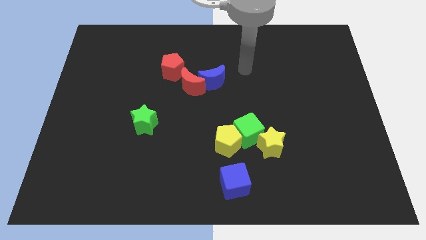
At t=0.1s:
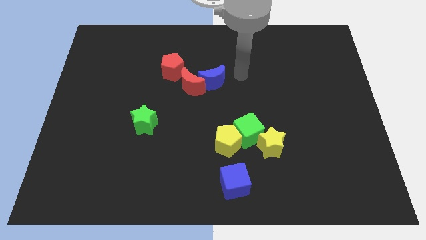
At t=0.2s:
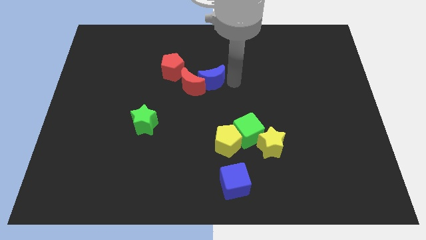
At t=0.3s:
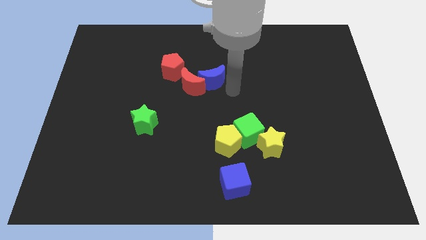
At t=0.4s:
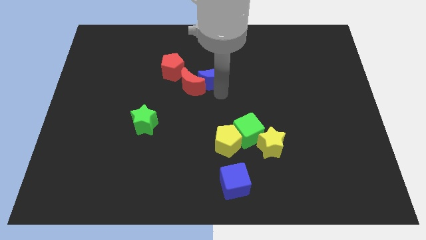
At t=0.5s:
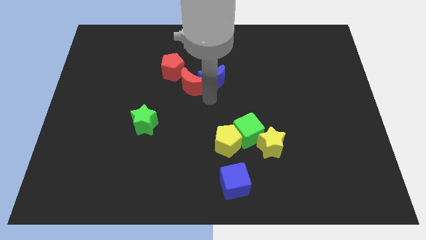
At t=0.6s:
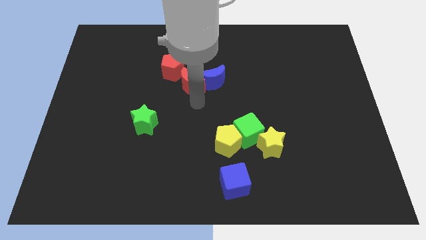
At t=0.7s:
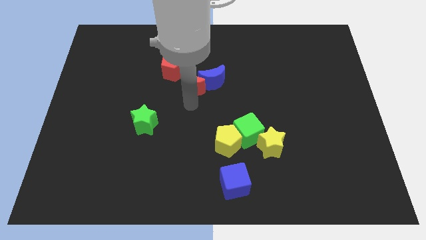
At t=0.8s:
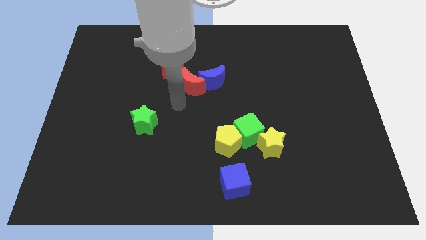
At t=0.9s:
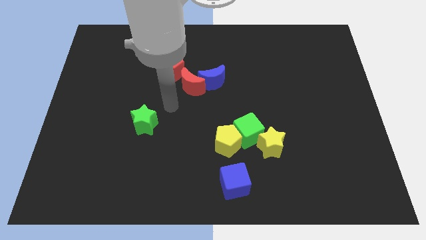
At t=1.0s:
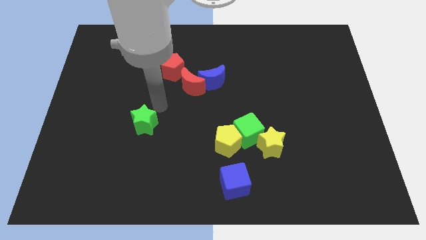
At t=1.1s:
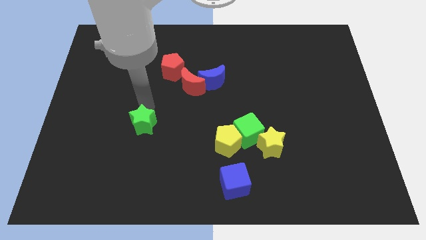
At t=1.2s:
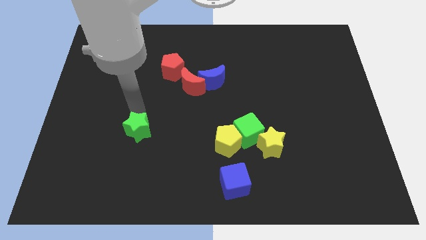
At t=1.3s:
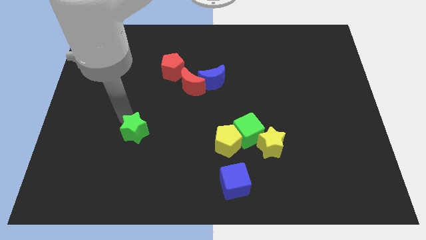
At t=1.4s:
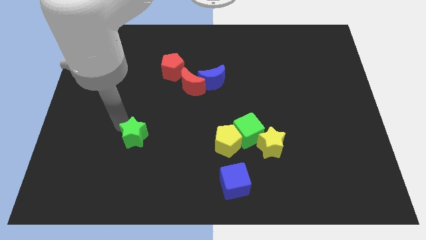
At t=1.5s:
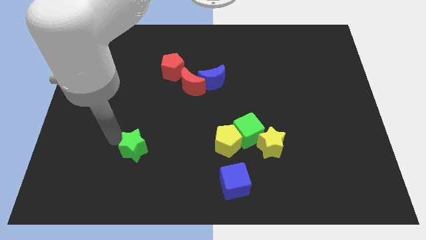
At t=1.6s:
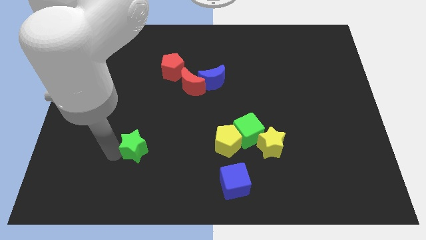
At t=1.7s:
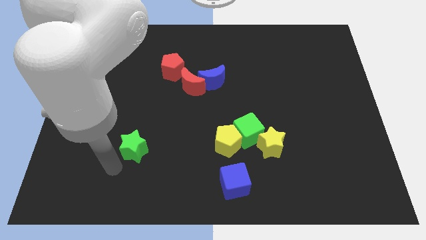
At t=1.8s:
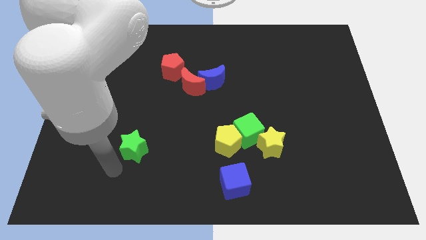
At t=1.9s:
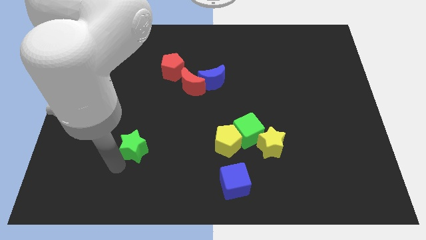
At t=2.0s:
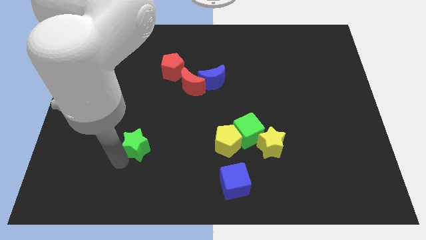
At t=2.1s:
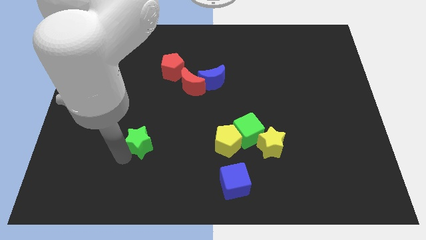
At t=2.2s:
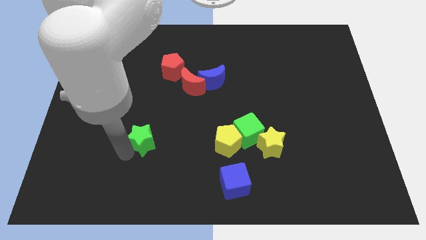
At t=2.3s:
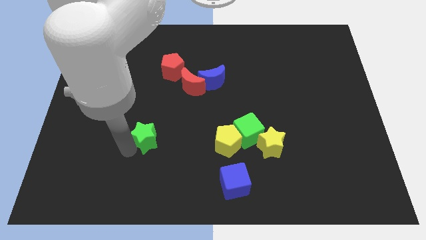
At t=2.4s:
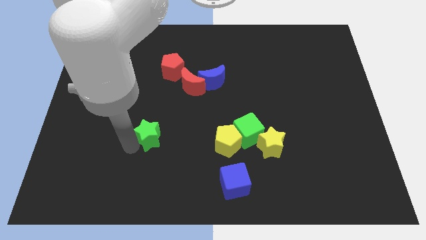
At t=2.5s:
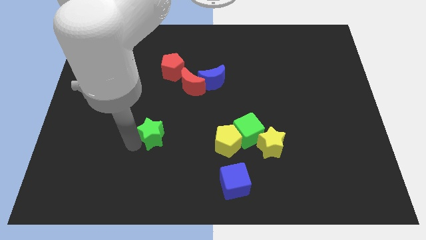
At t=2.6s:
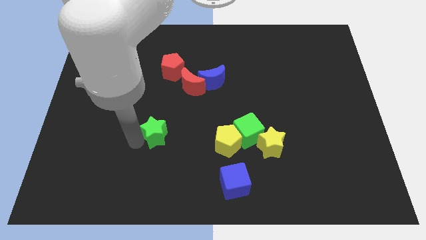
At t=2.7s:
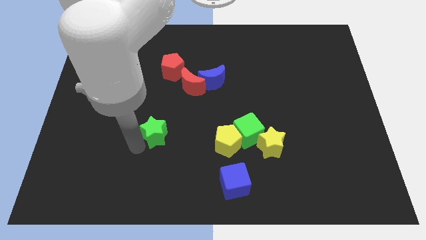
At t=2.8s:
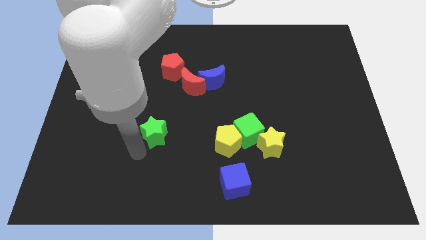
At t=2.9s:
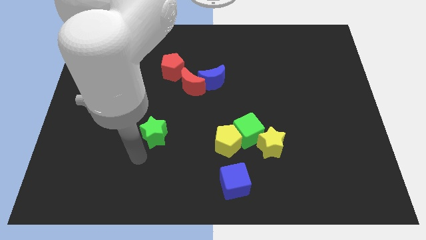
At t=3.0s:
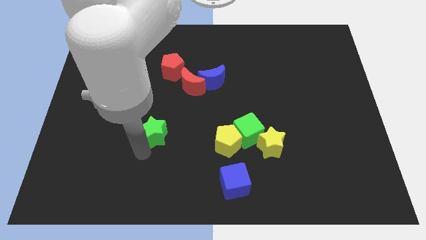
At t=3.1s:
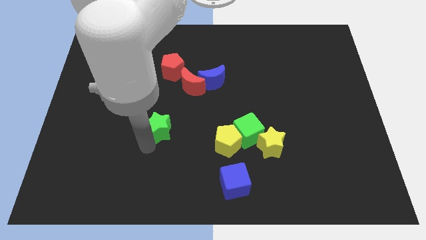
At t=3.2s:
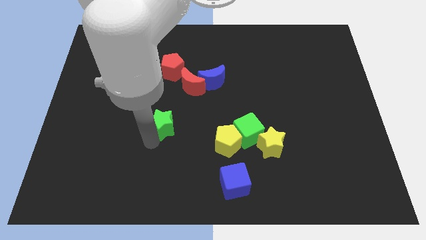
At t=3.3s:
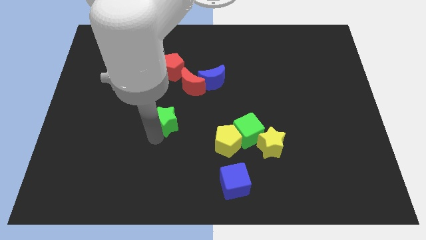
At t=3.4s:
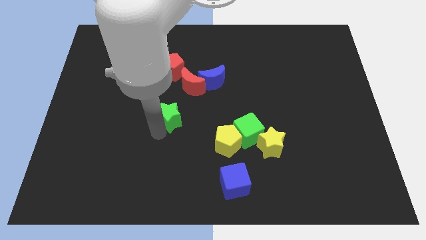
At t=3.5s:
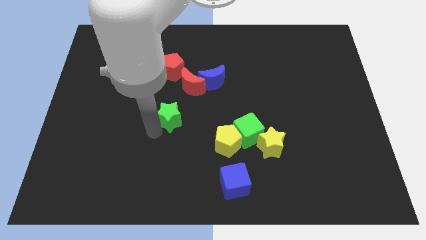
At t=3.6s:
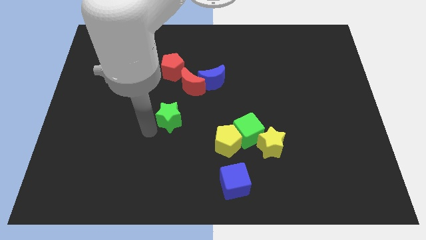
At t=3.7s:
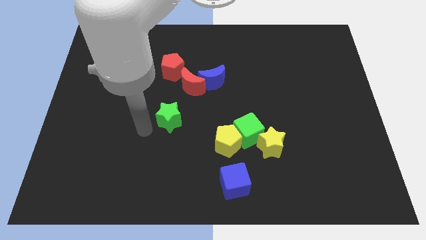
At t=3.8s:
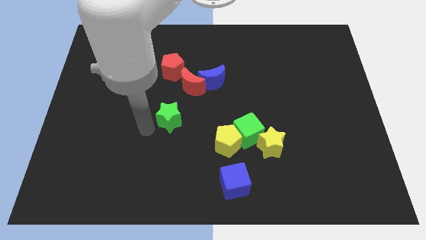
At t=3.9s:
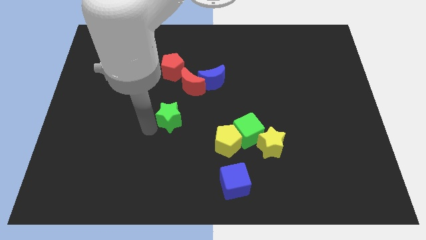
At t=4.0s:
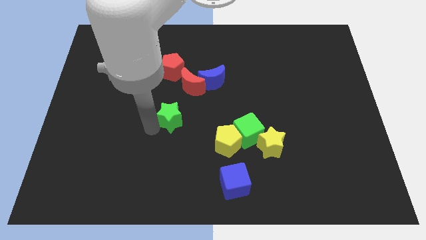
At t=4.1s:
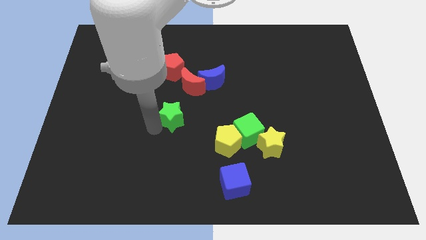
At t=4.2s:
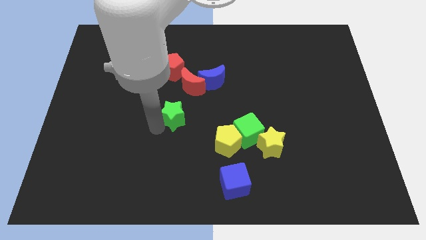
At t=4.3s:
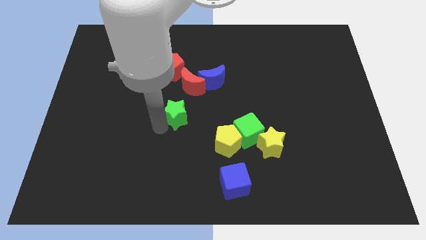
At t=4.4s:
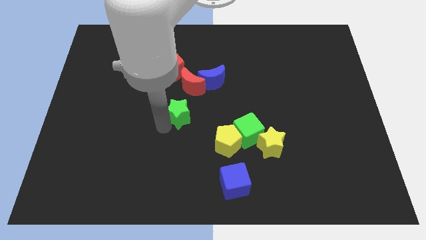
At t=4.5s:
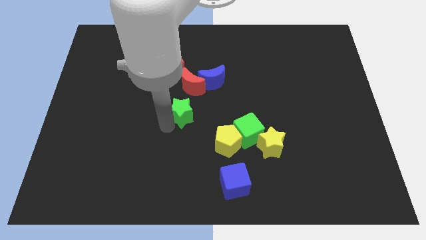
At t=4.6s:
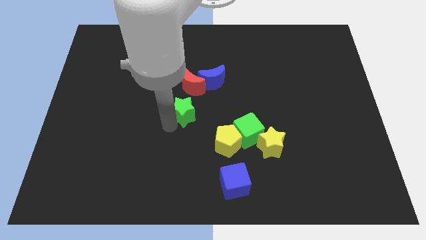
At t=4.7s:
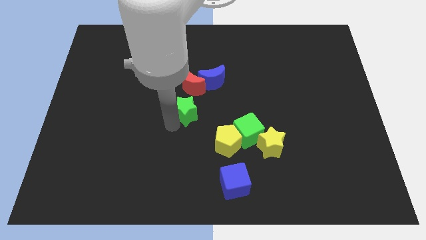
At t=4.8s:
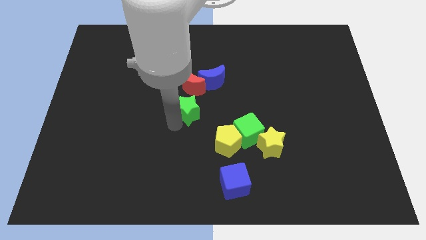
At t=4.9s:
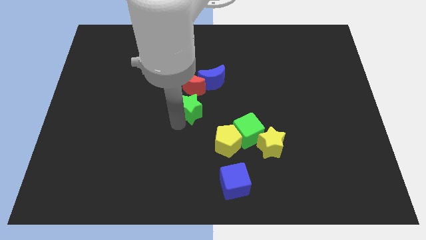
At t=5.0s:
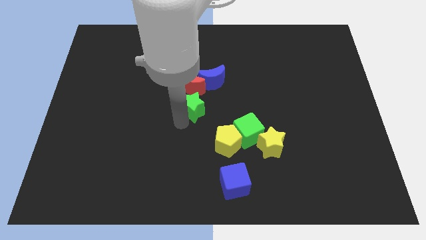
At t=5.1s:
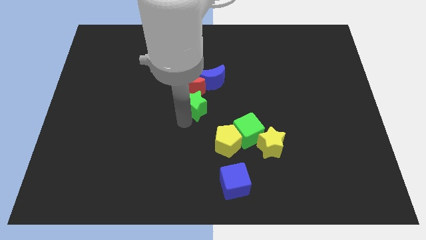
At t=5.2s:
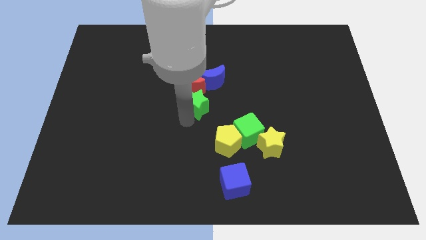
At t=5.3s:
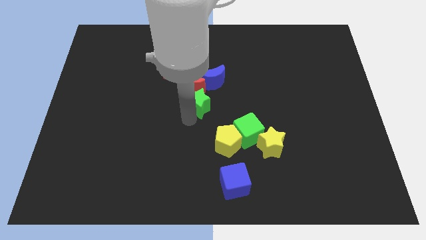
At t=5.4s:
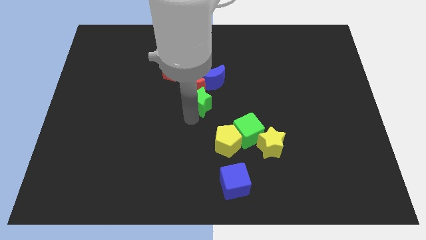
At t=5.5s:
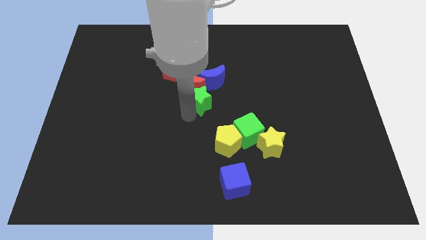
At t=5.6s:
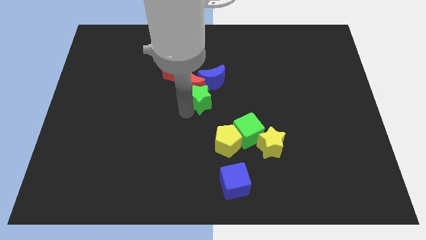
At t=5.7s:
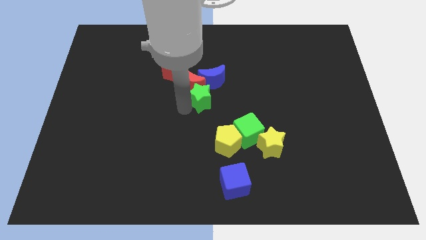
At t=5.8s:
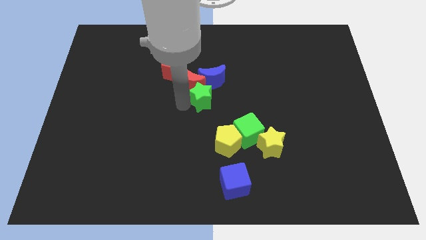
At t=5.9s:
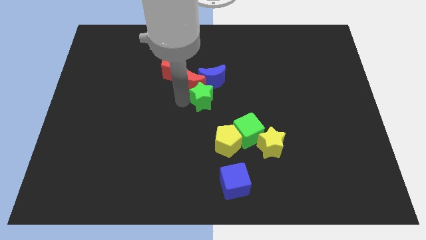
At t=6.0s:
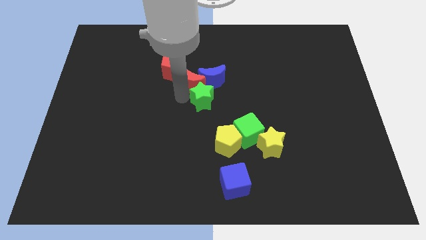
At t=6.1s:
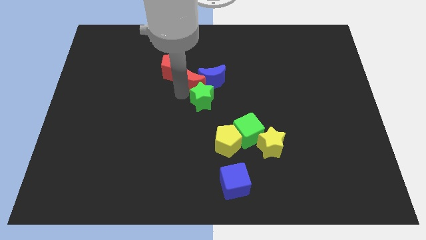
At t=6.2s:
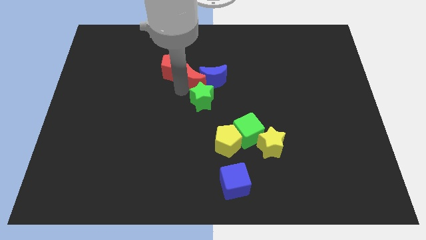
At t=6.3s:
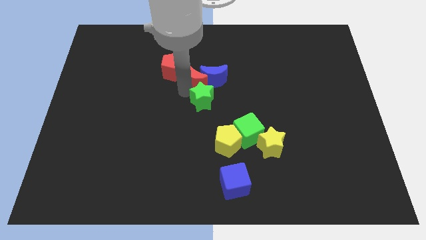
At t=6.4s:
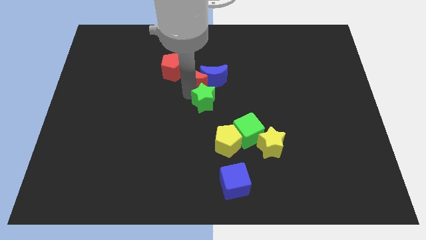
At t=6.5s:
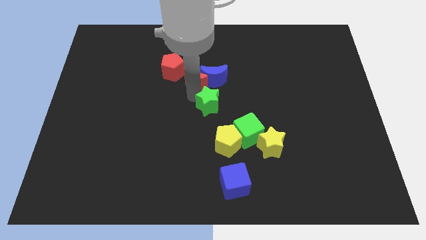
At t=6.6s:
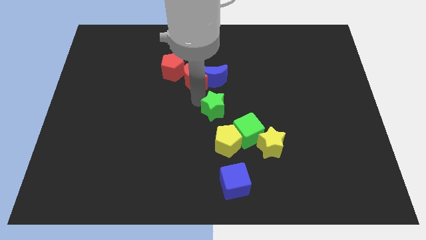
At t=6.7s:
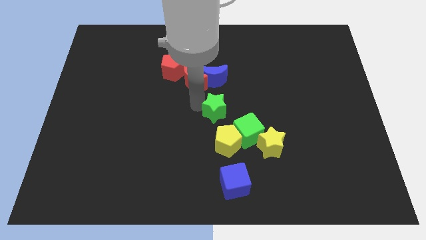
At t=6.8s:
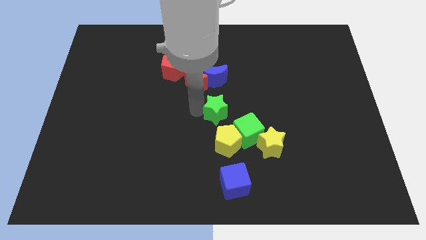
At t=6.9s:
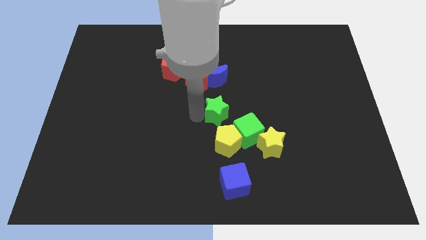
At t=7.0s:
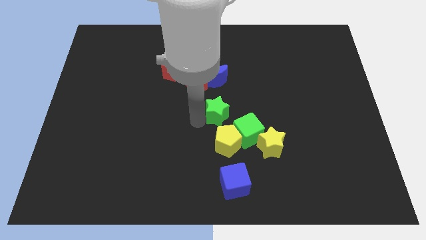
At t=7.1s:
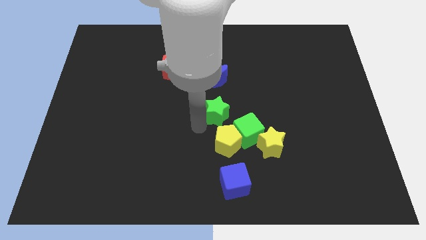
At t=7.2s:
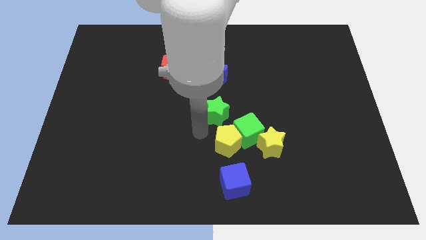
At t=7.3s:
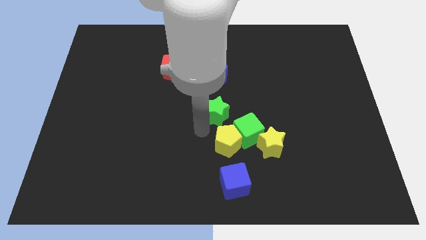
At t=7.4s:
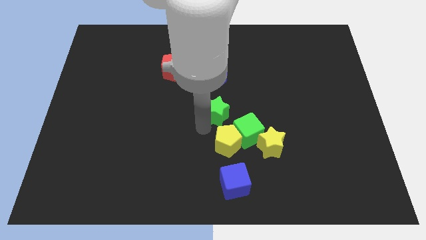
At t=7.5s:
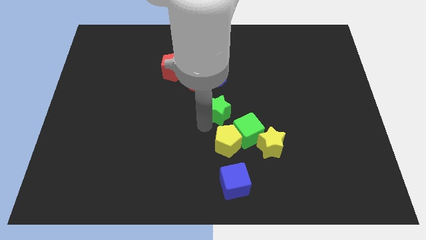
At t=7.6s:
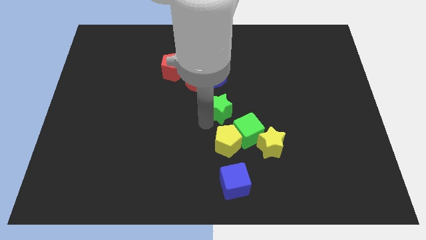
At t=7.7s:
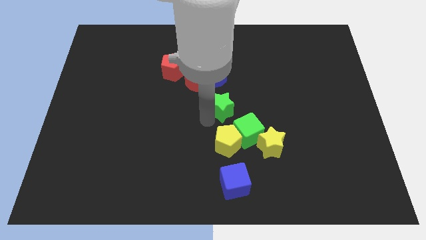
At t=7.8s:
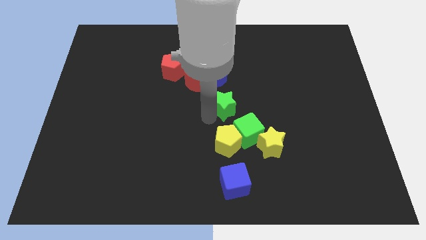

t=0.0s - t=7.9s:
move the green star to the bottom right side of the blue moon

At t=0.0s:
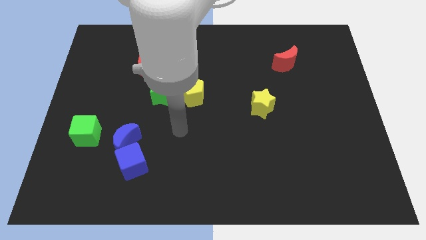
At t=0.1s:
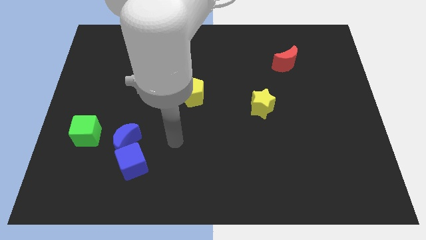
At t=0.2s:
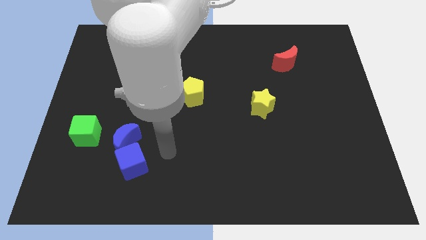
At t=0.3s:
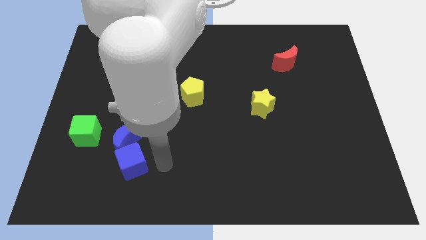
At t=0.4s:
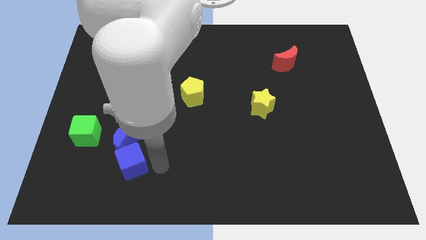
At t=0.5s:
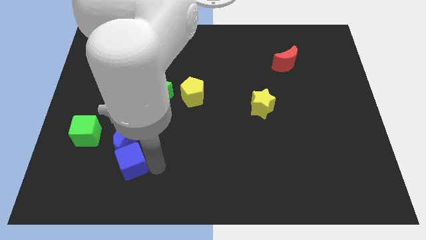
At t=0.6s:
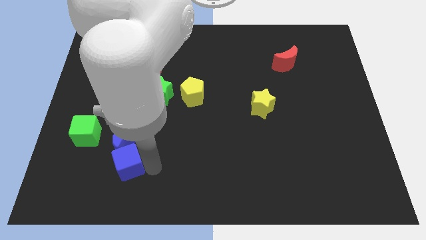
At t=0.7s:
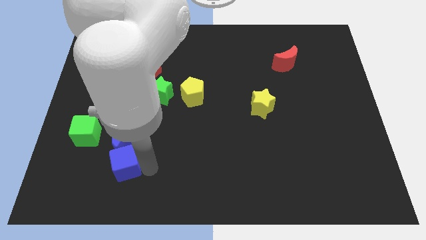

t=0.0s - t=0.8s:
push the blue cube to the bottom left side of the blue moon

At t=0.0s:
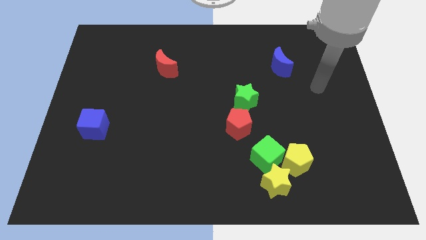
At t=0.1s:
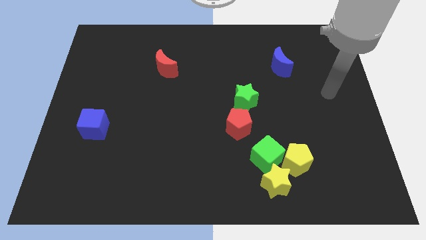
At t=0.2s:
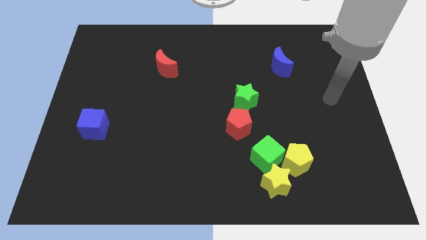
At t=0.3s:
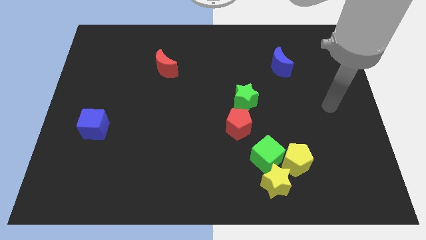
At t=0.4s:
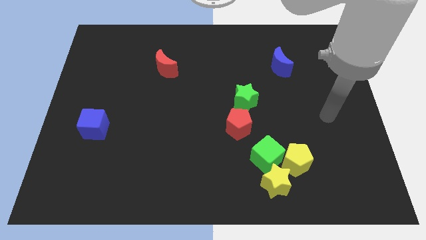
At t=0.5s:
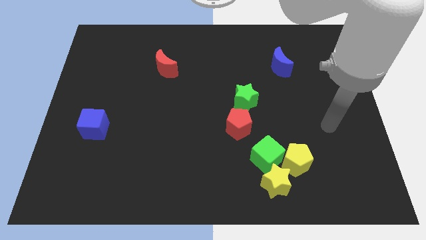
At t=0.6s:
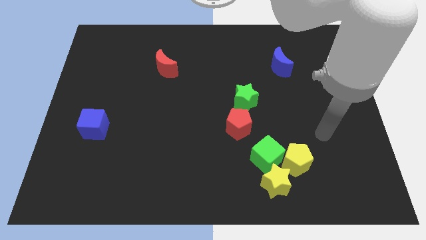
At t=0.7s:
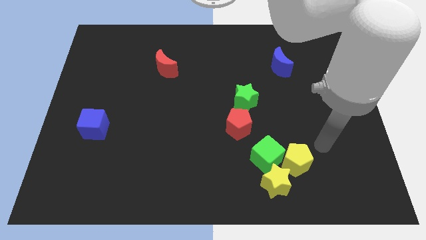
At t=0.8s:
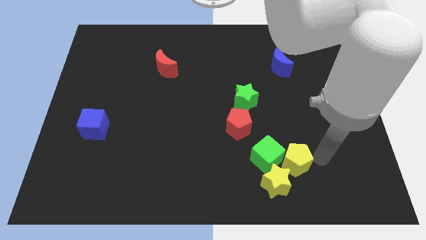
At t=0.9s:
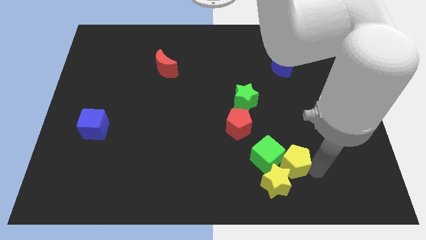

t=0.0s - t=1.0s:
move the yellow star just left of the yellow pentagon
